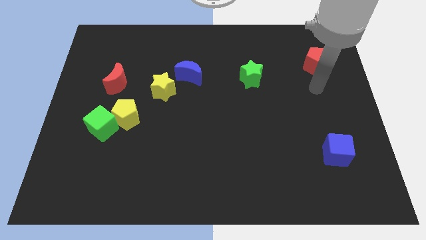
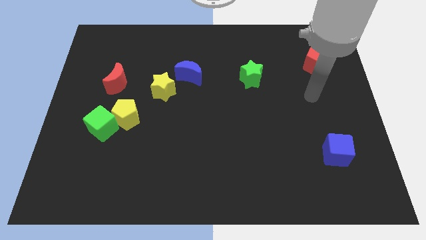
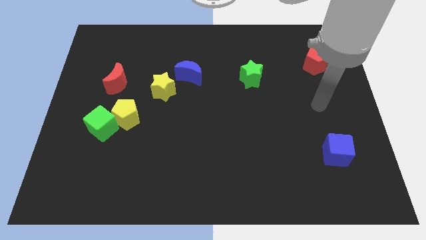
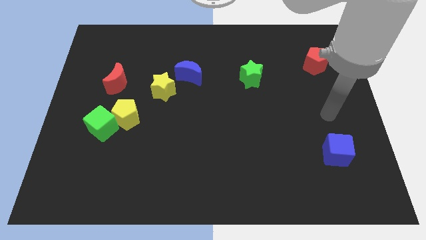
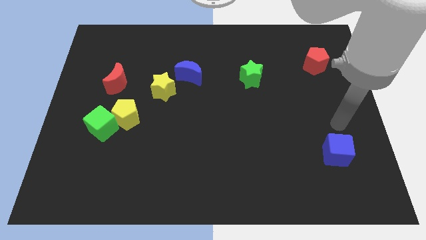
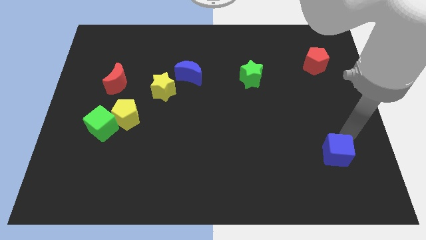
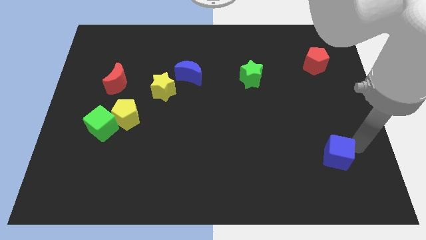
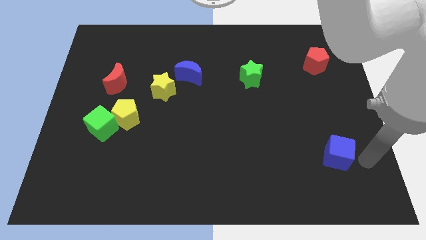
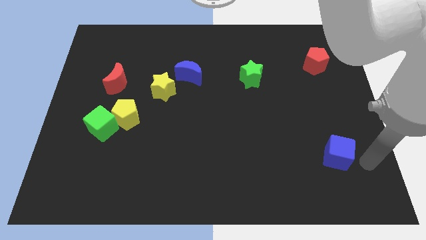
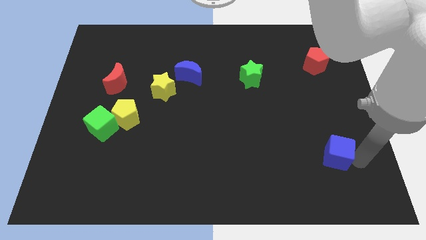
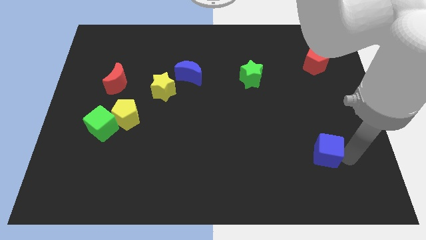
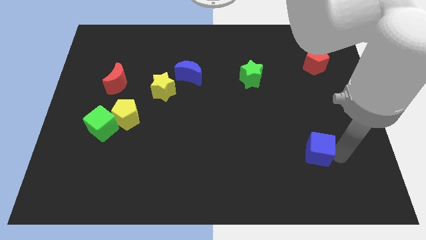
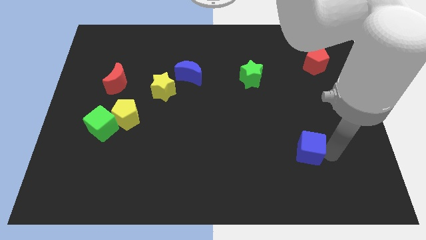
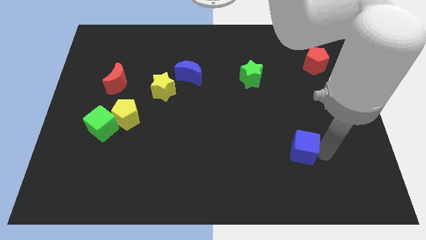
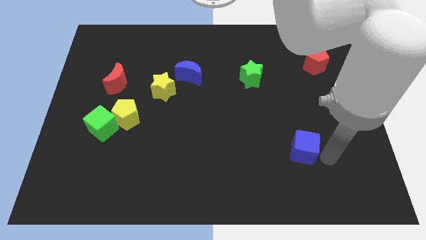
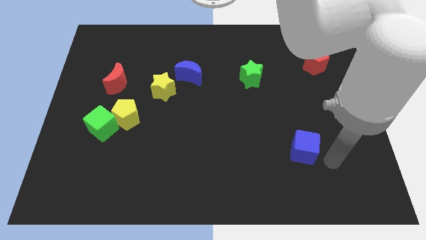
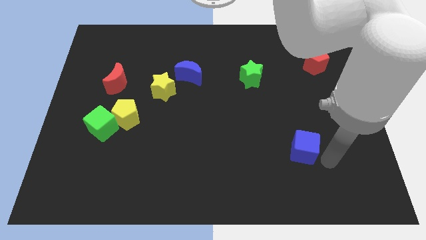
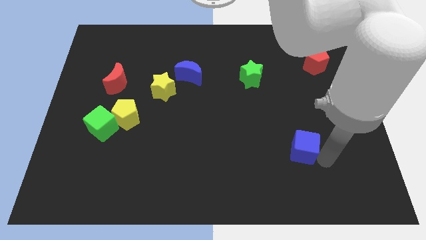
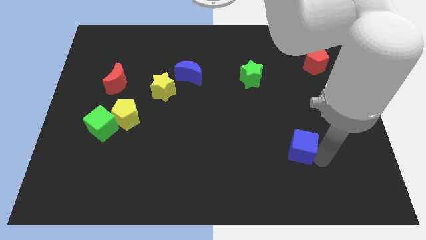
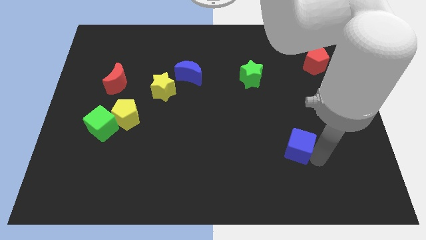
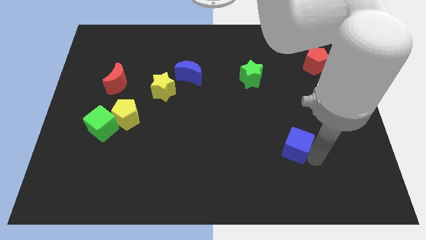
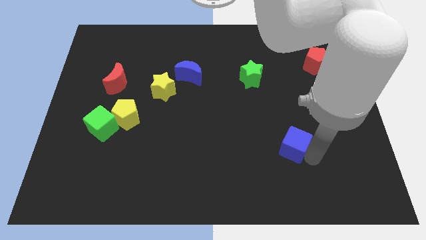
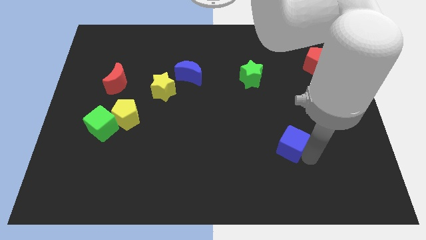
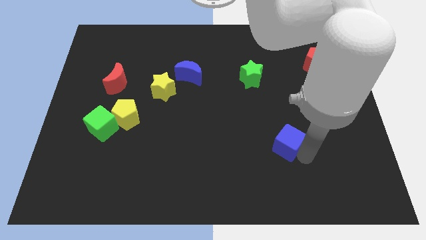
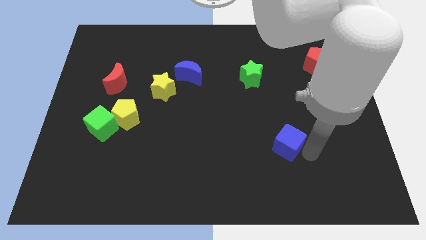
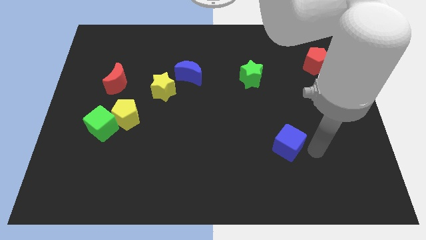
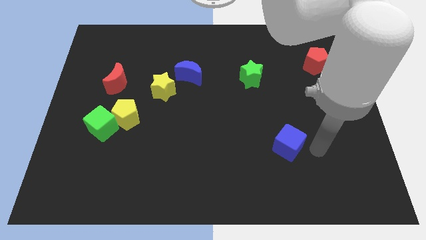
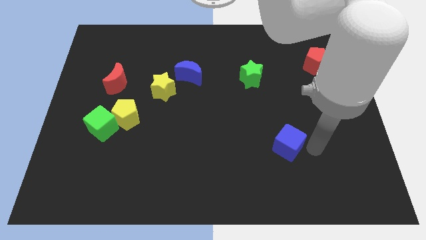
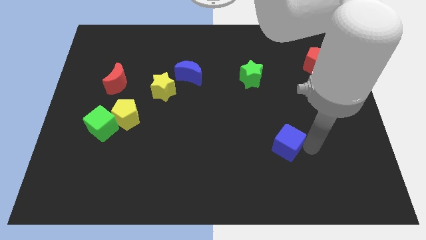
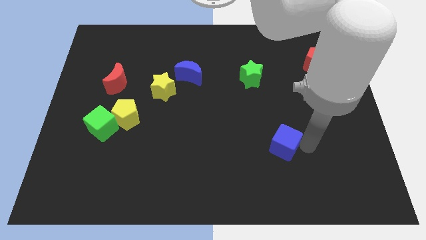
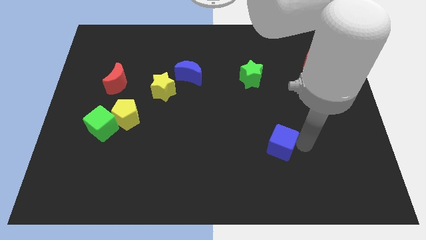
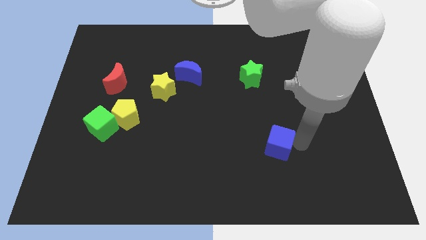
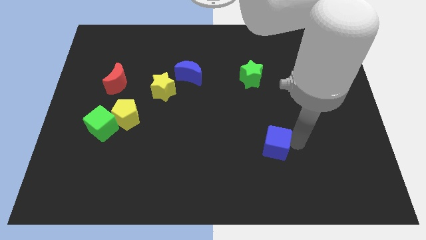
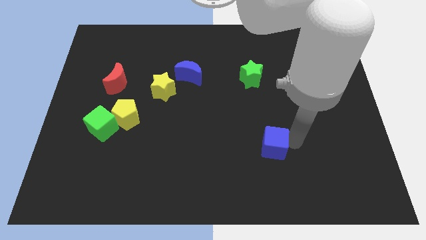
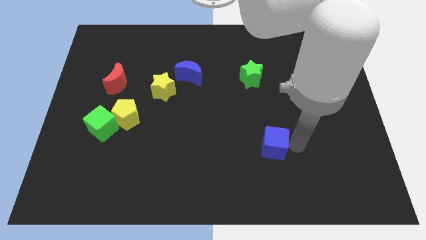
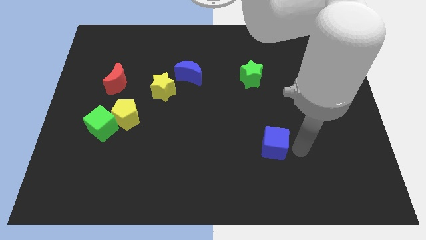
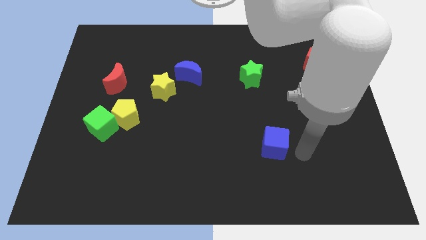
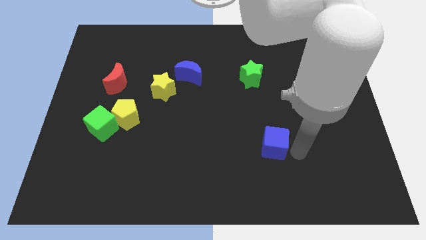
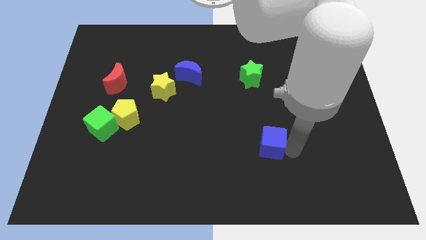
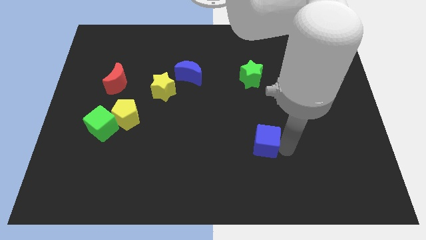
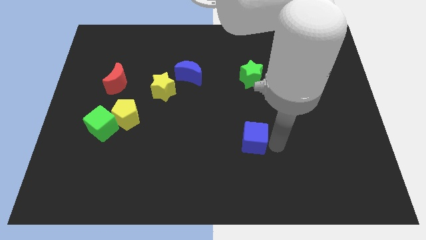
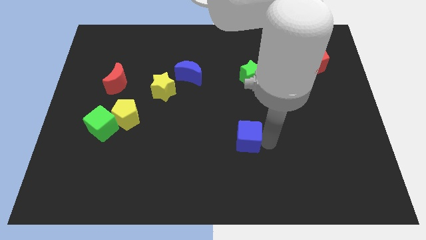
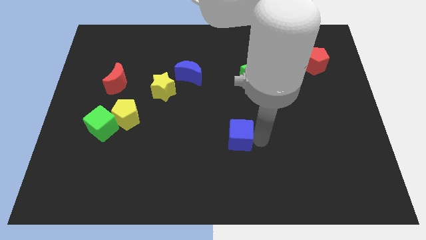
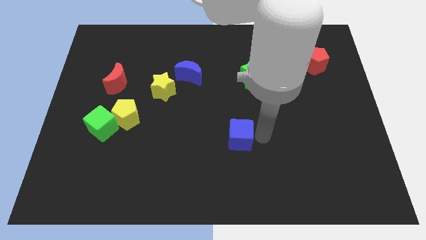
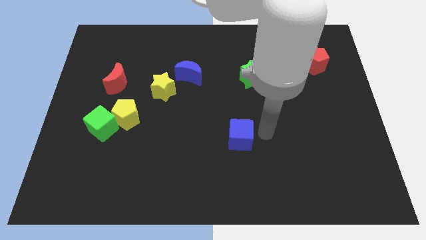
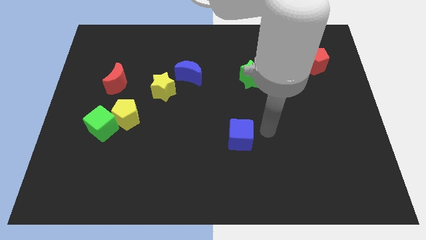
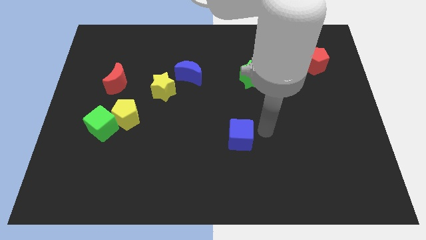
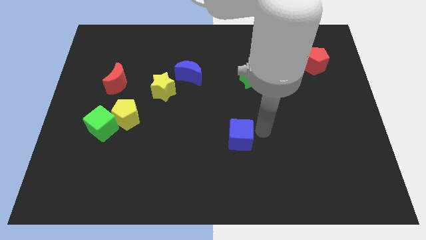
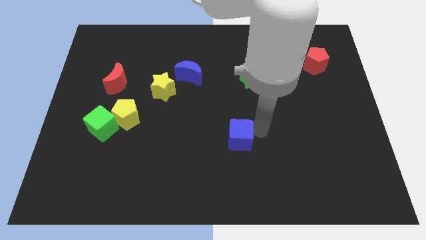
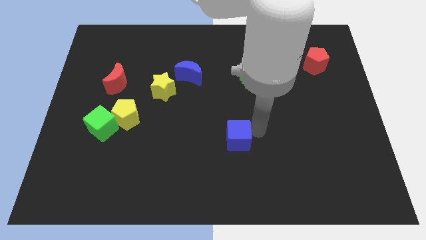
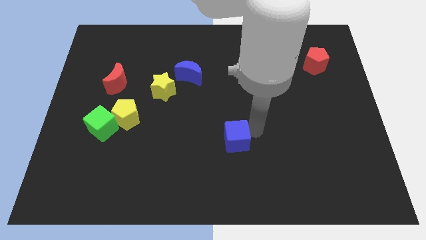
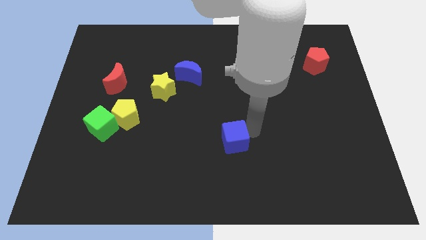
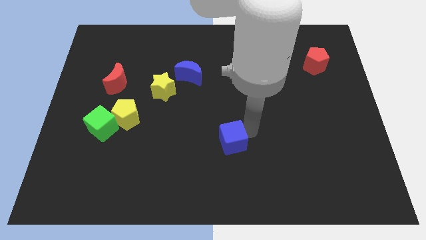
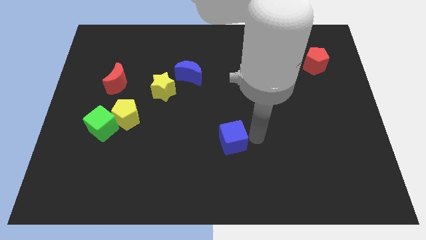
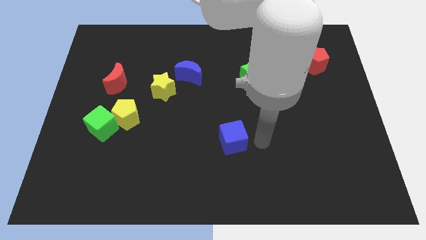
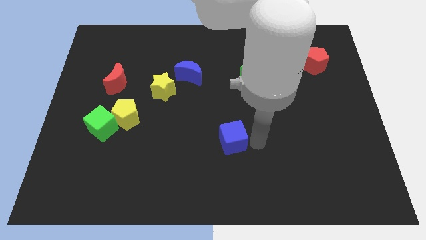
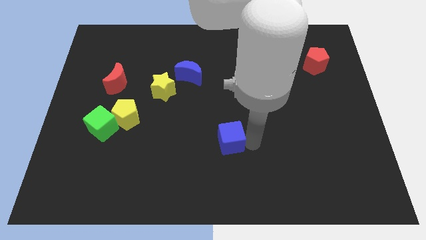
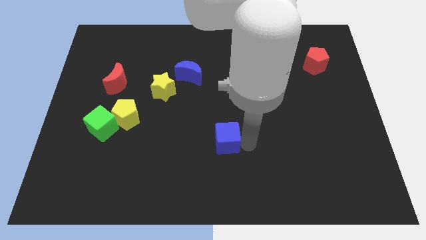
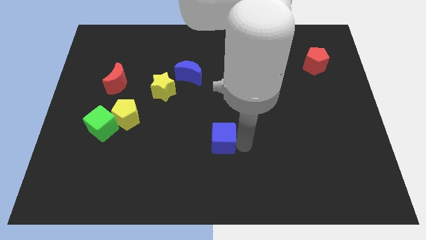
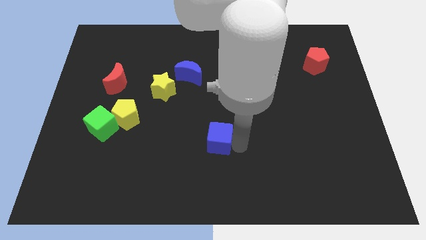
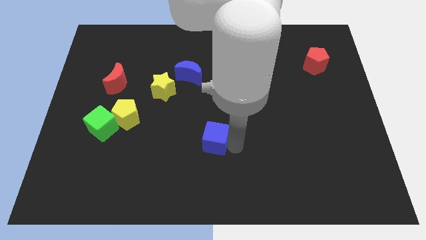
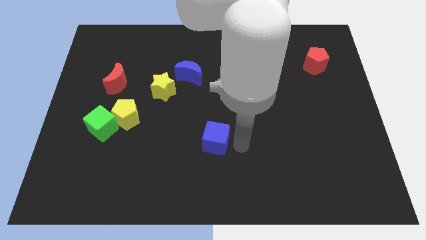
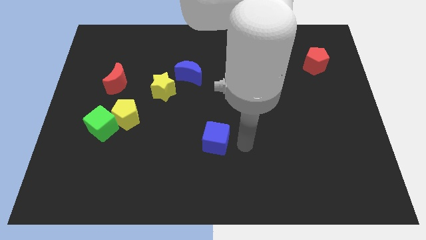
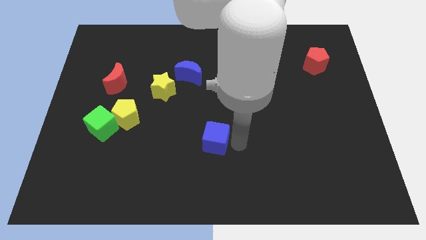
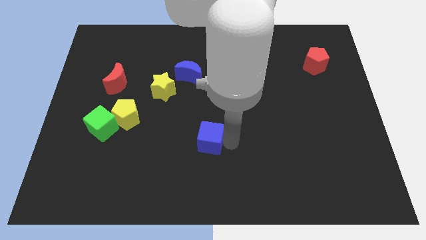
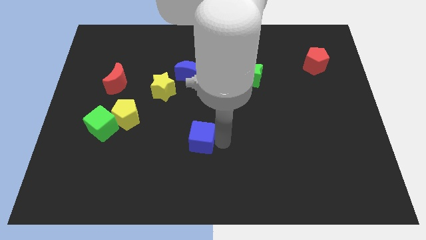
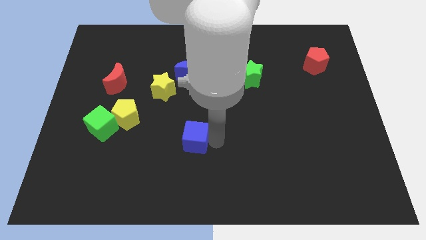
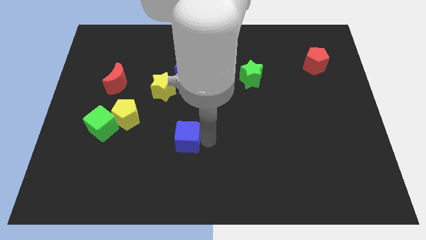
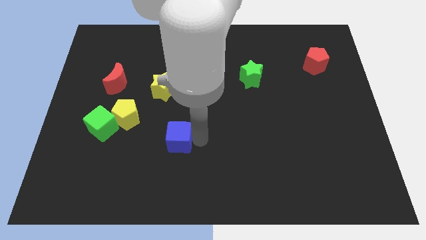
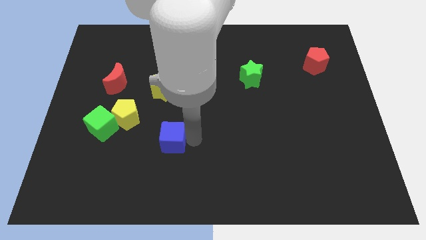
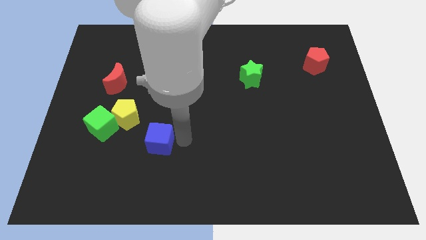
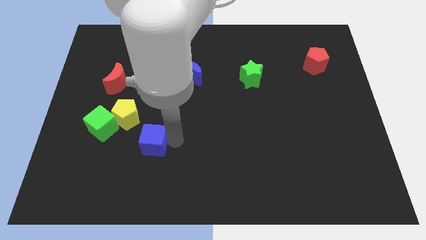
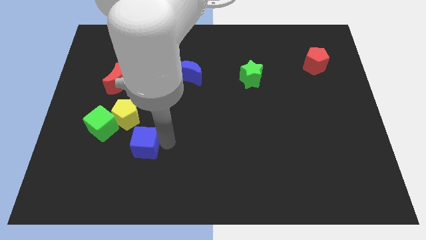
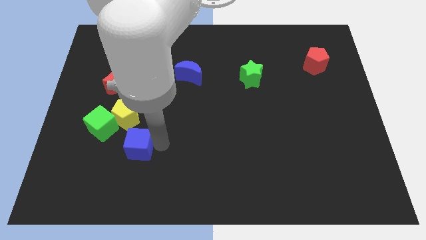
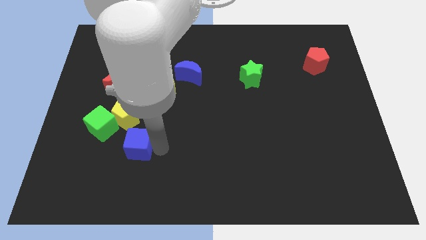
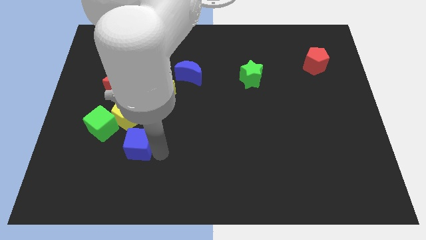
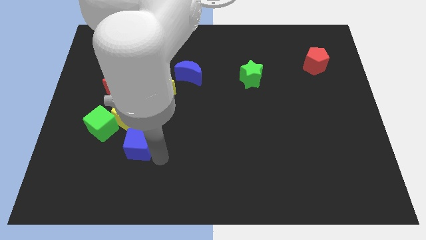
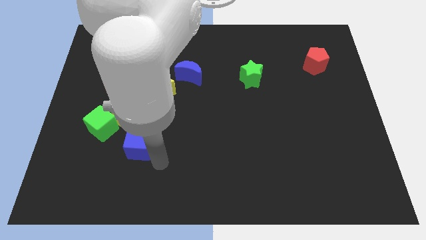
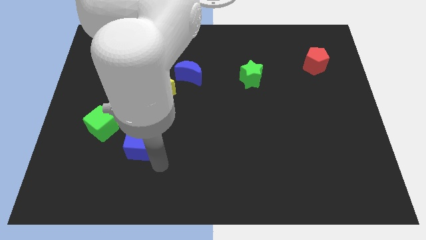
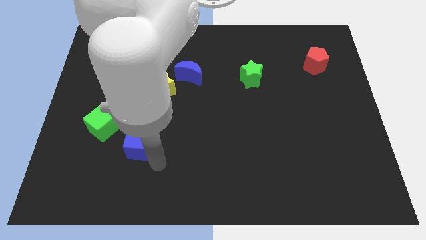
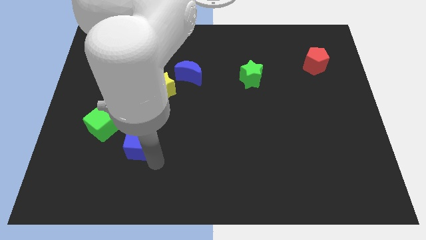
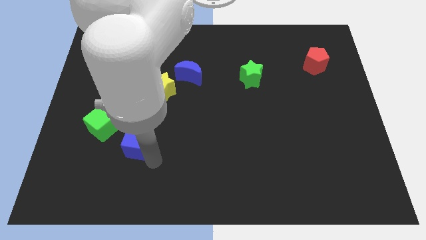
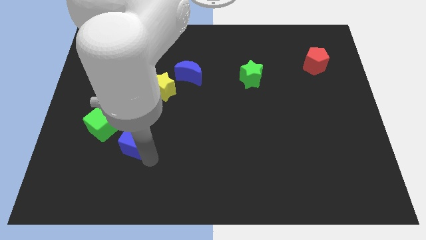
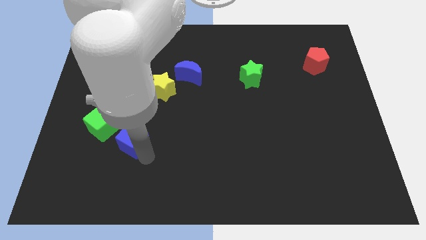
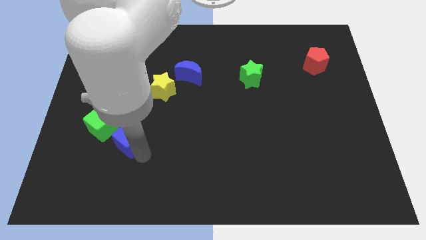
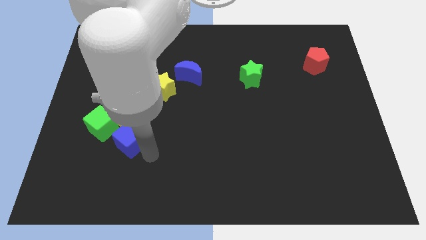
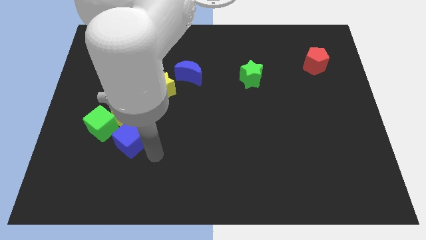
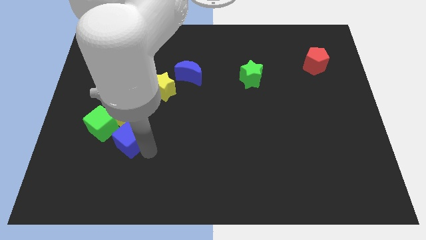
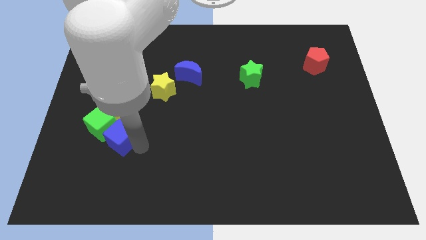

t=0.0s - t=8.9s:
move the blue cube close to the green cube
